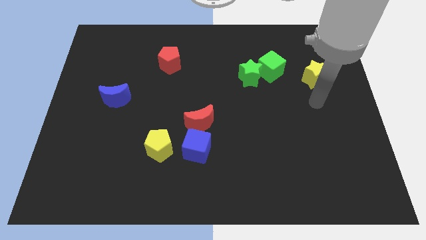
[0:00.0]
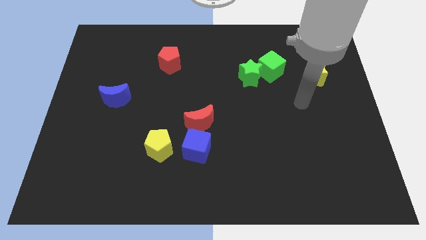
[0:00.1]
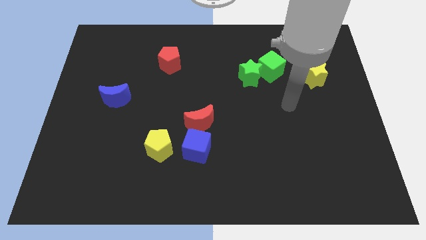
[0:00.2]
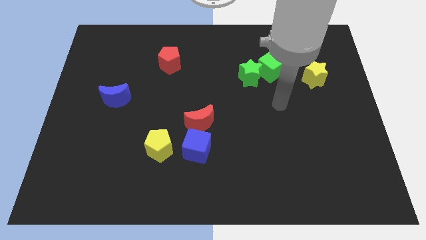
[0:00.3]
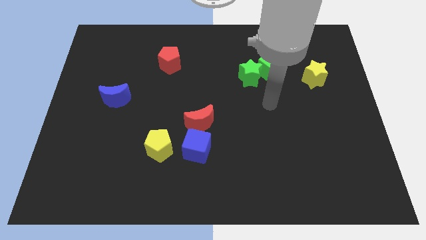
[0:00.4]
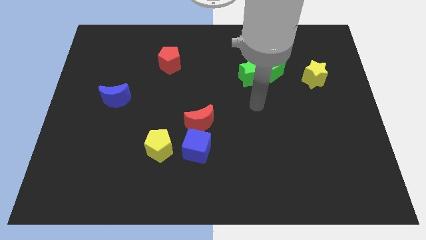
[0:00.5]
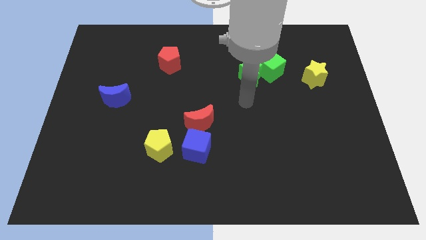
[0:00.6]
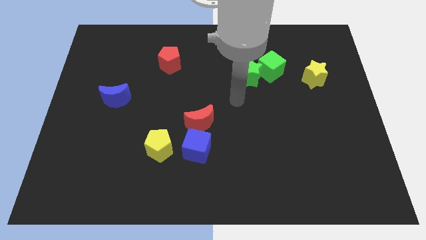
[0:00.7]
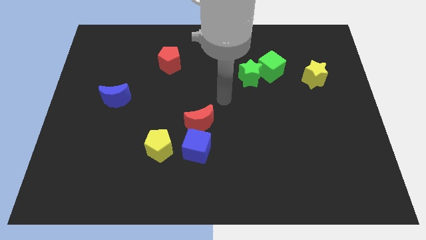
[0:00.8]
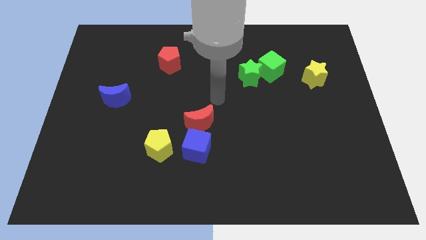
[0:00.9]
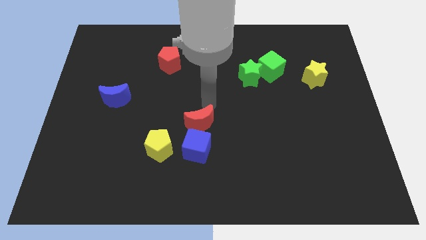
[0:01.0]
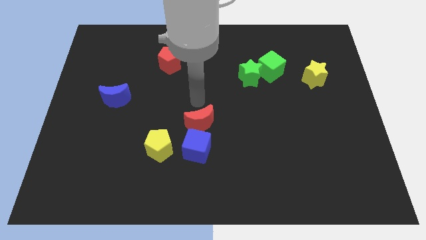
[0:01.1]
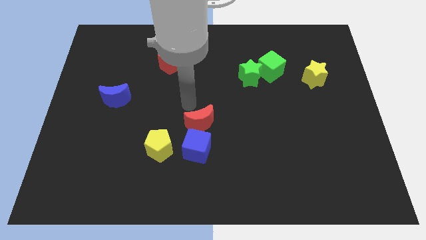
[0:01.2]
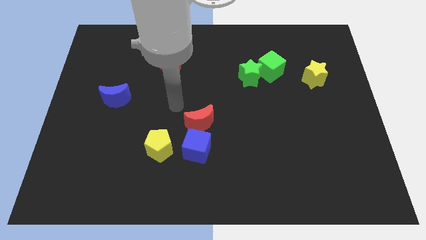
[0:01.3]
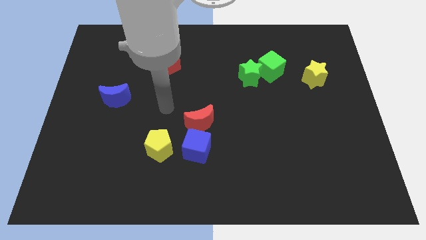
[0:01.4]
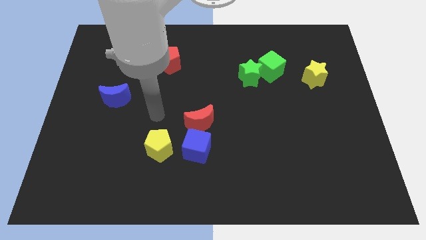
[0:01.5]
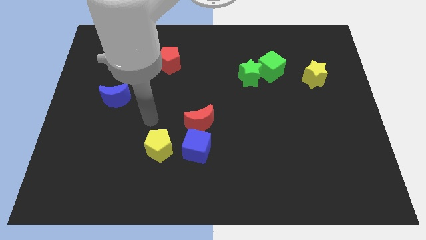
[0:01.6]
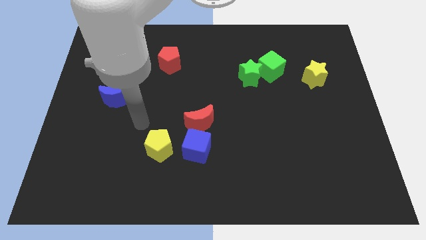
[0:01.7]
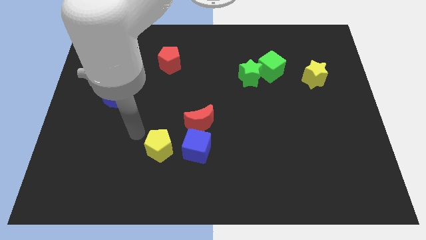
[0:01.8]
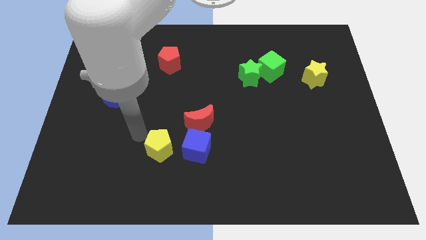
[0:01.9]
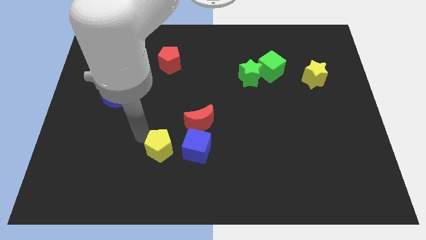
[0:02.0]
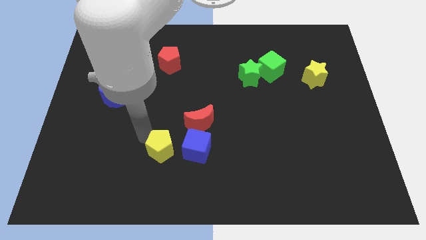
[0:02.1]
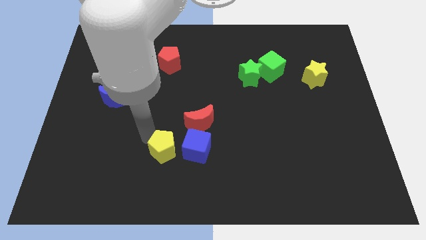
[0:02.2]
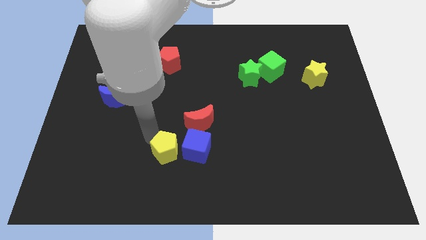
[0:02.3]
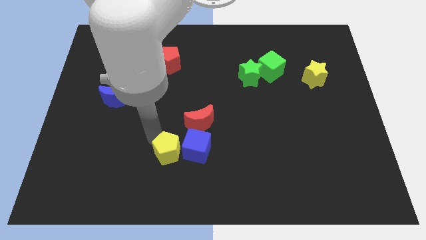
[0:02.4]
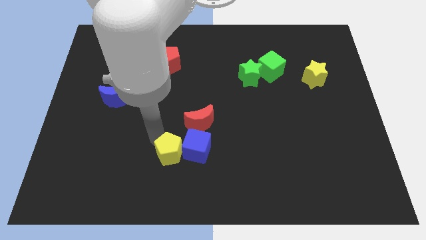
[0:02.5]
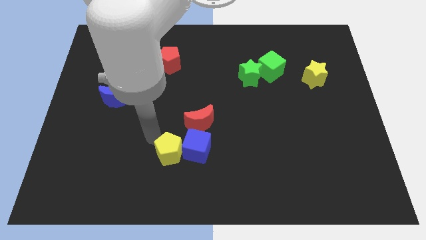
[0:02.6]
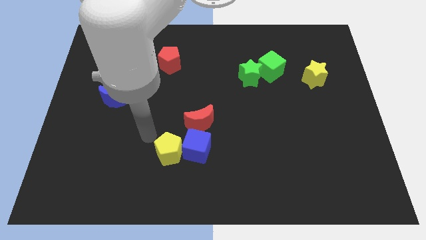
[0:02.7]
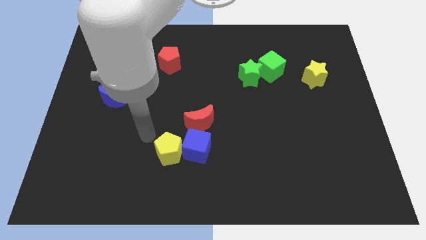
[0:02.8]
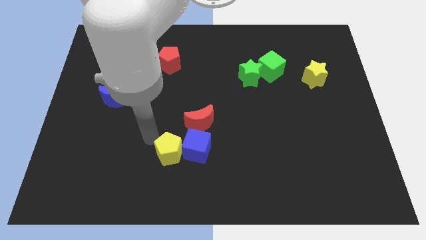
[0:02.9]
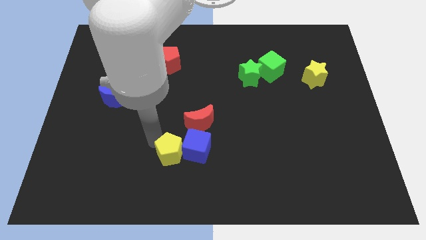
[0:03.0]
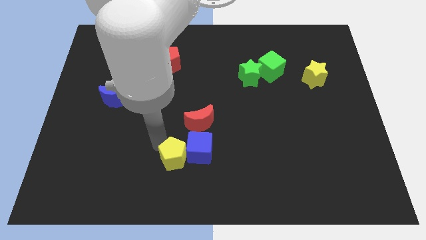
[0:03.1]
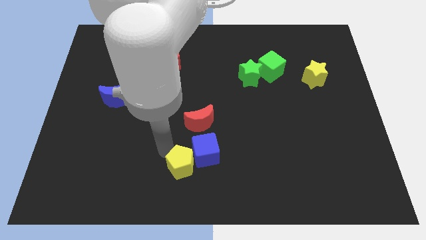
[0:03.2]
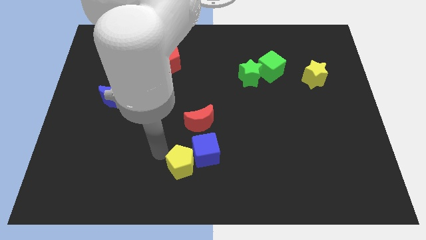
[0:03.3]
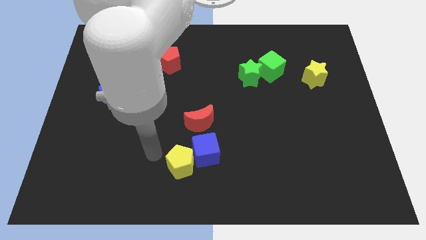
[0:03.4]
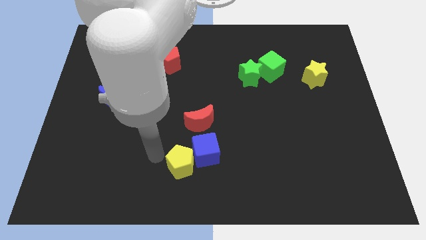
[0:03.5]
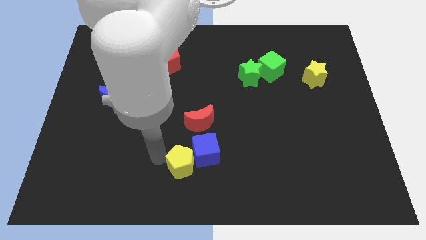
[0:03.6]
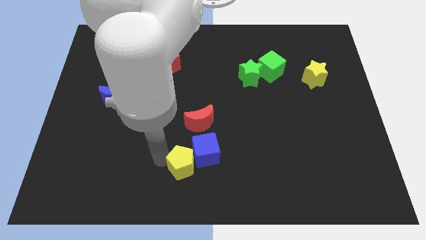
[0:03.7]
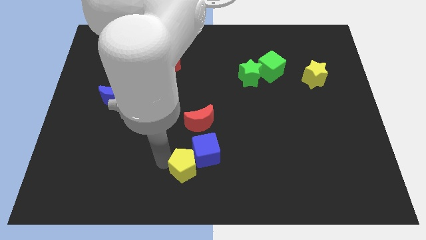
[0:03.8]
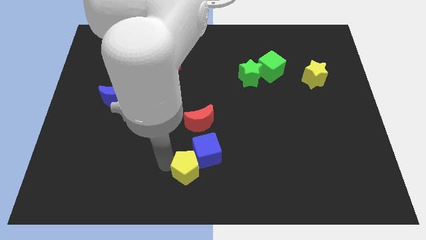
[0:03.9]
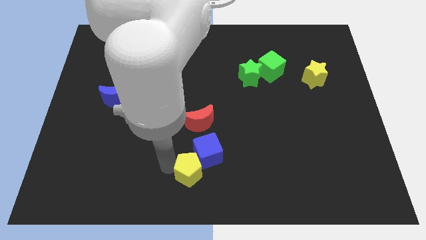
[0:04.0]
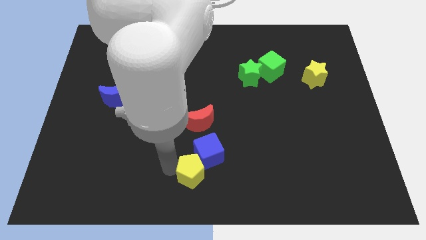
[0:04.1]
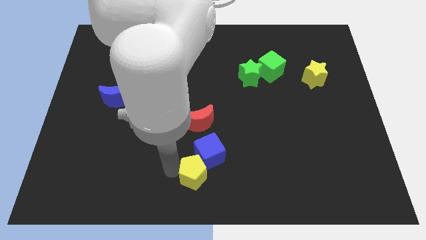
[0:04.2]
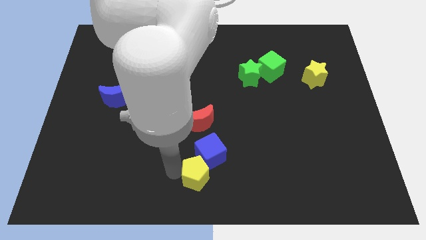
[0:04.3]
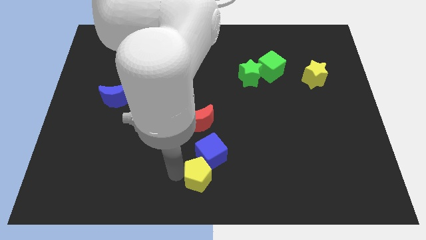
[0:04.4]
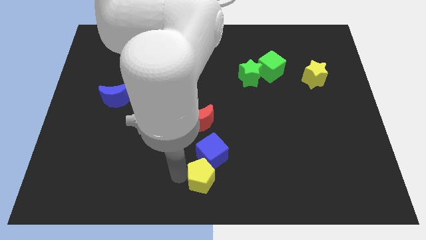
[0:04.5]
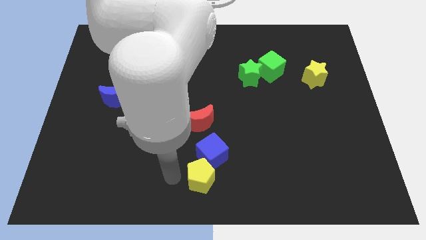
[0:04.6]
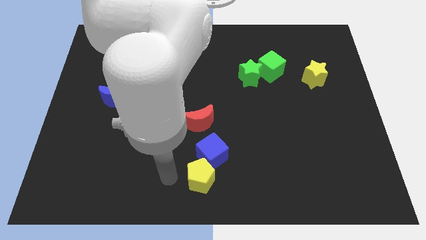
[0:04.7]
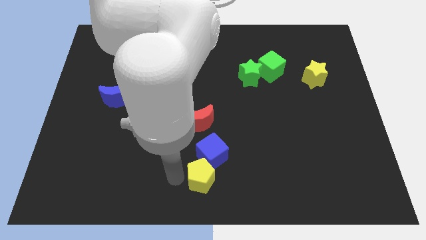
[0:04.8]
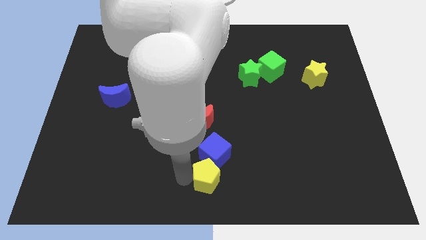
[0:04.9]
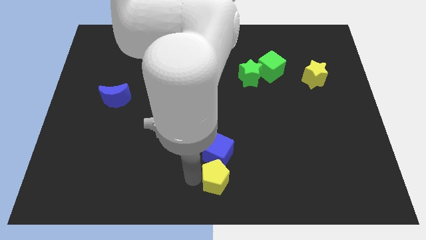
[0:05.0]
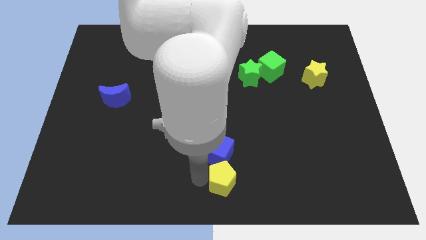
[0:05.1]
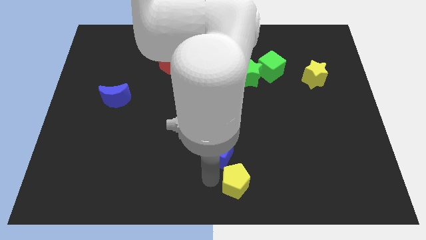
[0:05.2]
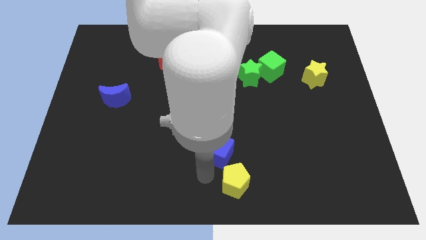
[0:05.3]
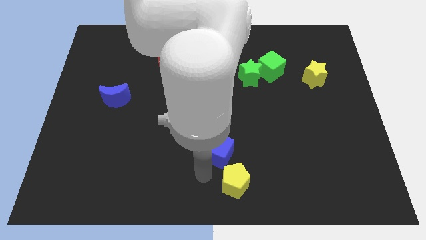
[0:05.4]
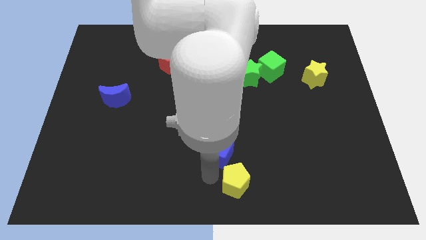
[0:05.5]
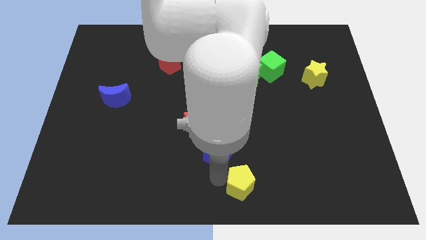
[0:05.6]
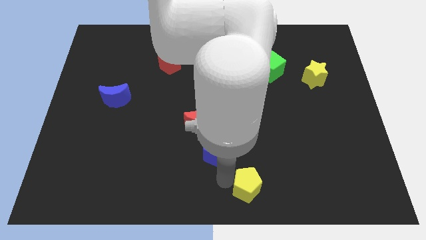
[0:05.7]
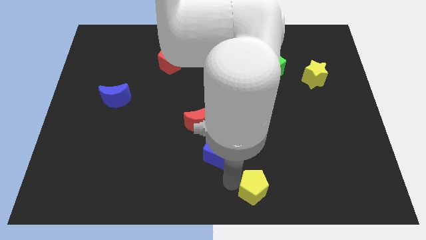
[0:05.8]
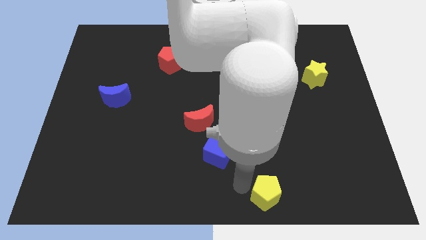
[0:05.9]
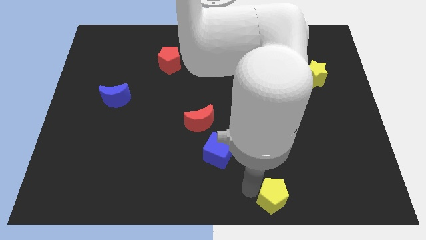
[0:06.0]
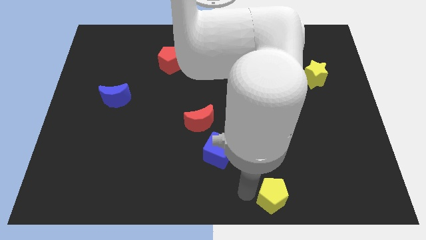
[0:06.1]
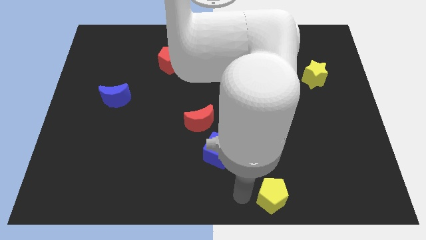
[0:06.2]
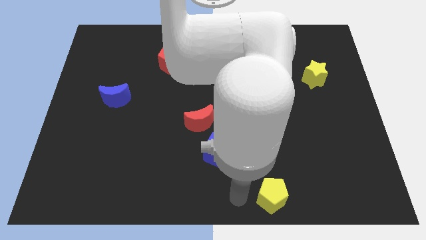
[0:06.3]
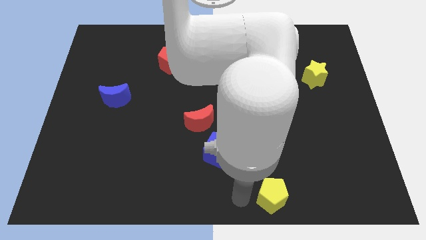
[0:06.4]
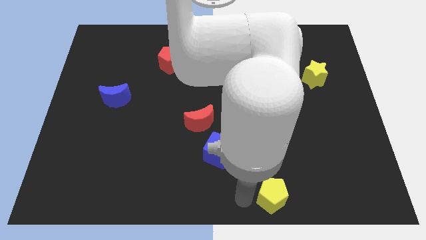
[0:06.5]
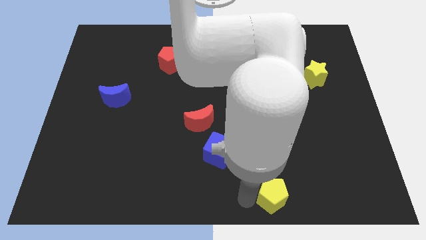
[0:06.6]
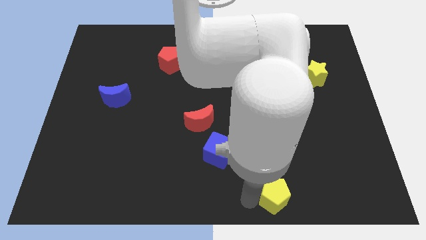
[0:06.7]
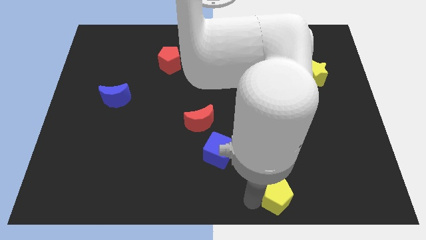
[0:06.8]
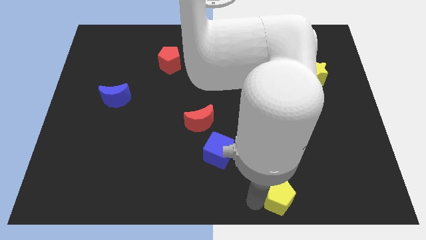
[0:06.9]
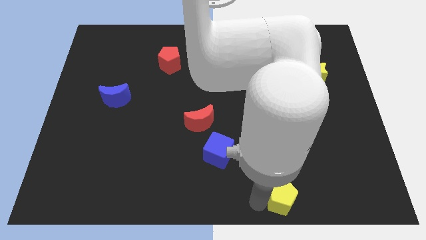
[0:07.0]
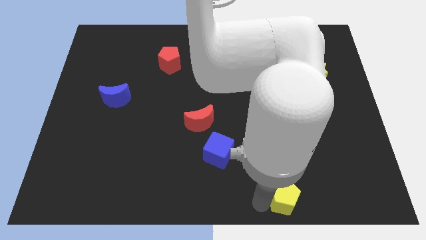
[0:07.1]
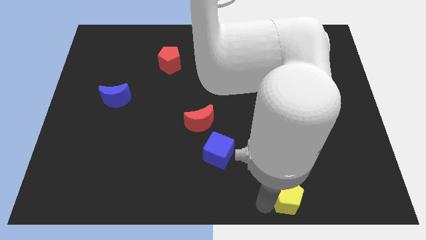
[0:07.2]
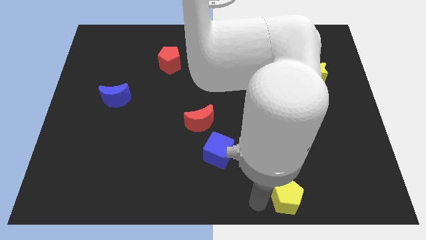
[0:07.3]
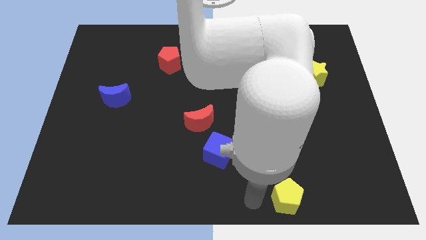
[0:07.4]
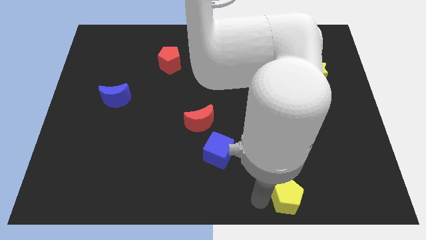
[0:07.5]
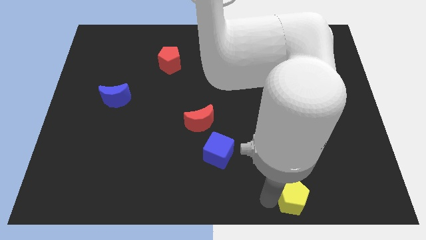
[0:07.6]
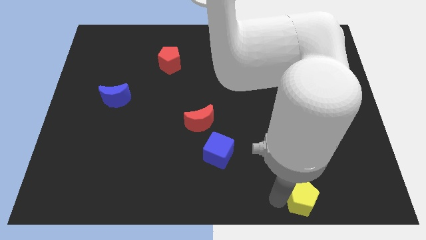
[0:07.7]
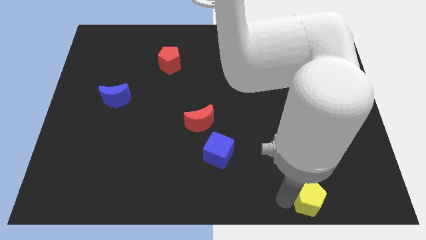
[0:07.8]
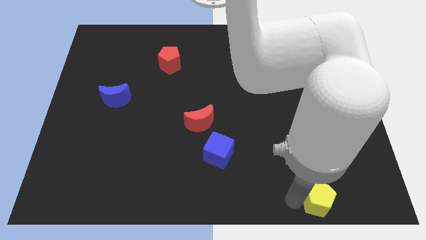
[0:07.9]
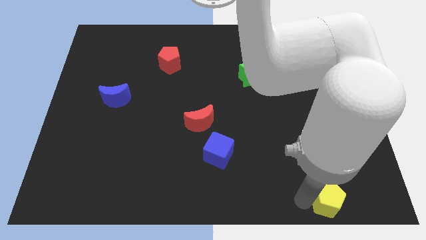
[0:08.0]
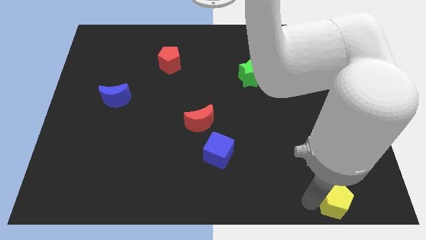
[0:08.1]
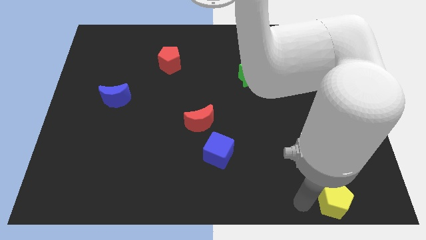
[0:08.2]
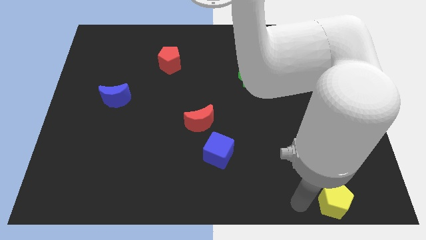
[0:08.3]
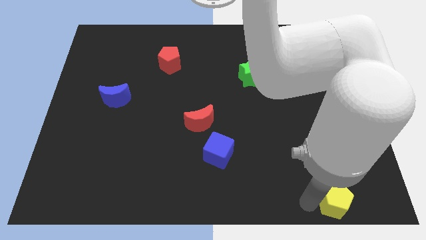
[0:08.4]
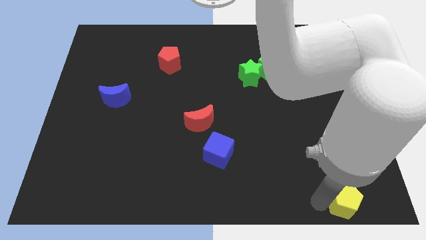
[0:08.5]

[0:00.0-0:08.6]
slide the yellow pentagon to the bottom right
